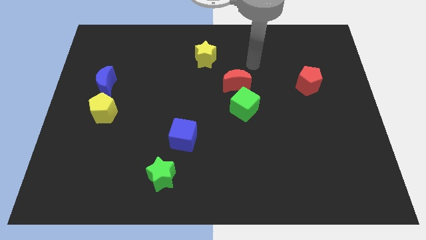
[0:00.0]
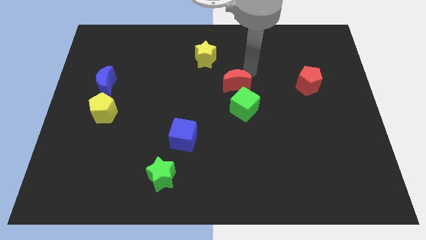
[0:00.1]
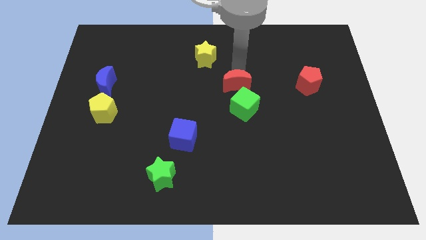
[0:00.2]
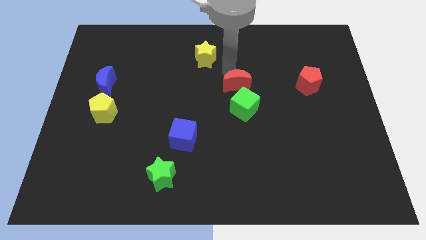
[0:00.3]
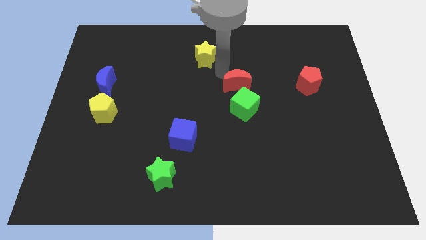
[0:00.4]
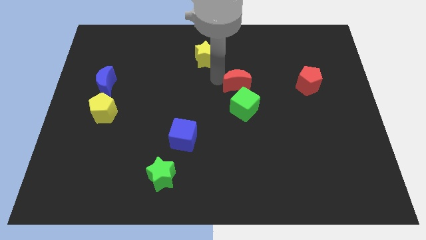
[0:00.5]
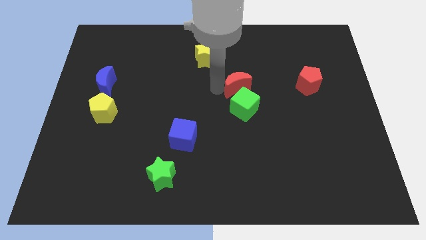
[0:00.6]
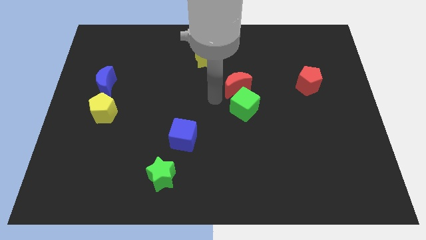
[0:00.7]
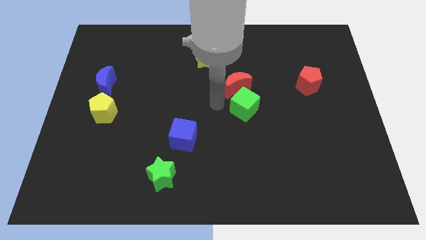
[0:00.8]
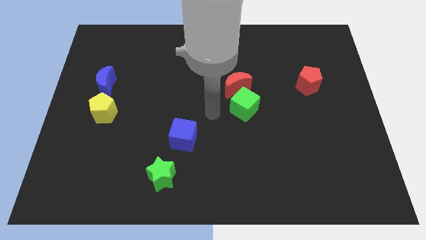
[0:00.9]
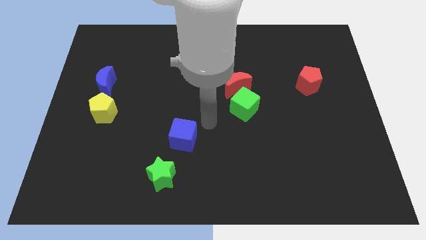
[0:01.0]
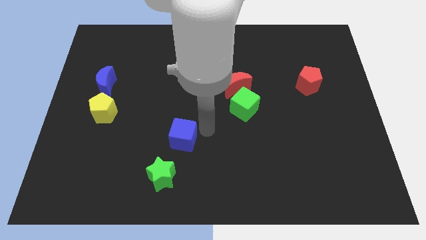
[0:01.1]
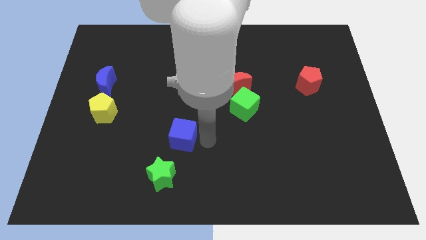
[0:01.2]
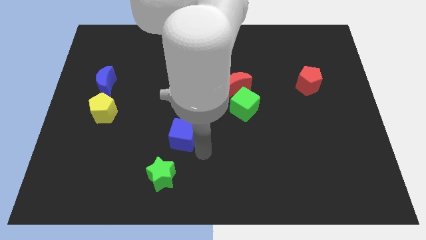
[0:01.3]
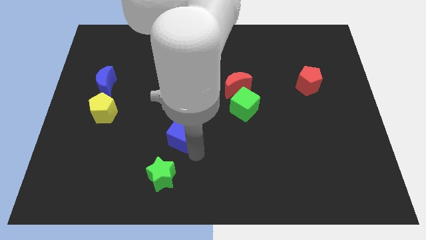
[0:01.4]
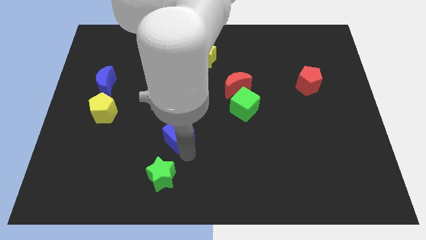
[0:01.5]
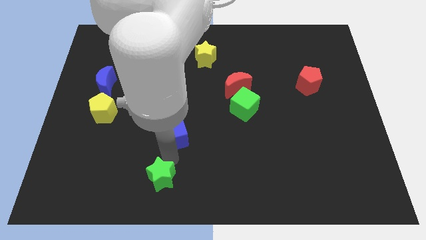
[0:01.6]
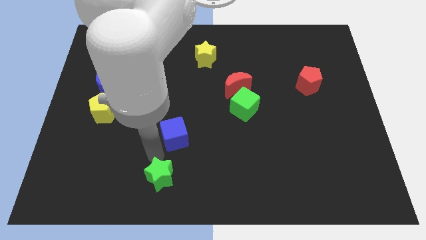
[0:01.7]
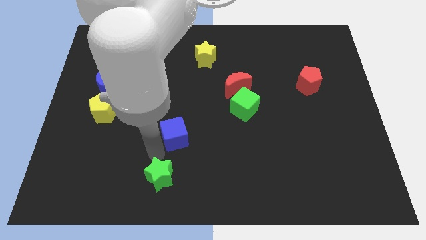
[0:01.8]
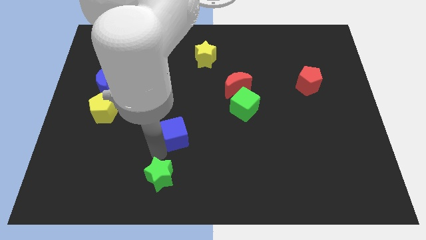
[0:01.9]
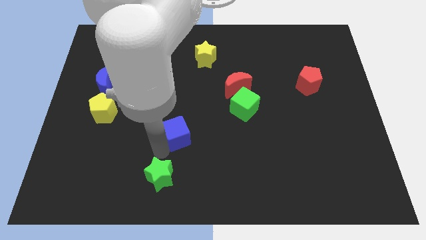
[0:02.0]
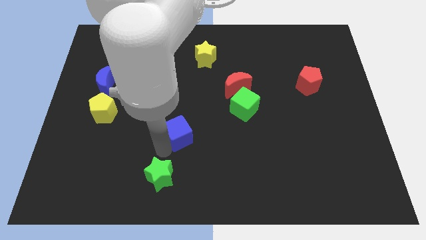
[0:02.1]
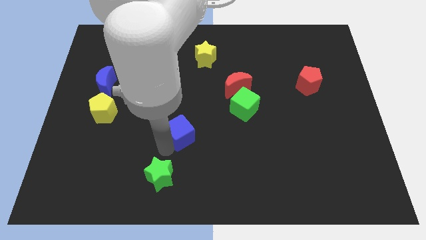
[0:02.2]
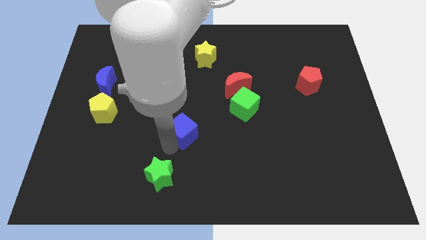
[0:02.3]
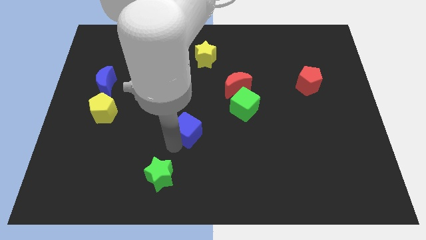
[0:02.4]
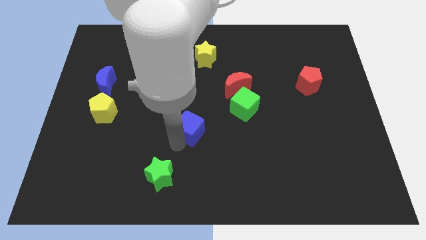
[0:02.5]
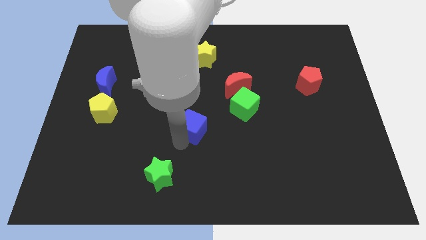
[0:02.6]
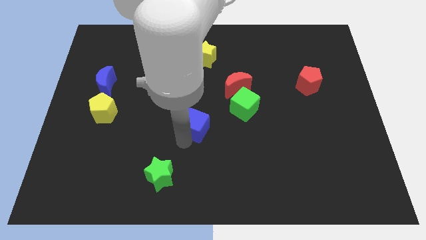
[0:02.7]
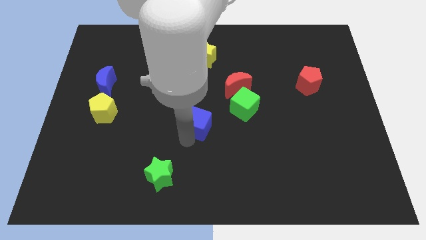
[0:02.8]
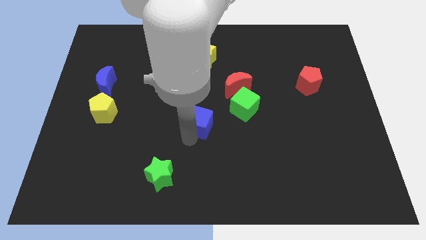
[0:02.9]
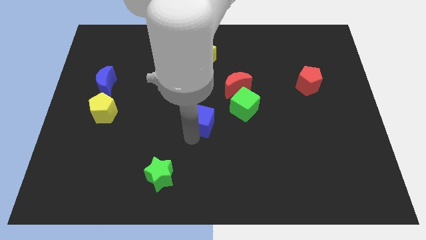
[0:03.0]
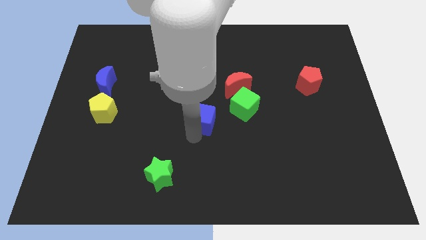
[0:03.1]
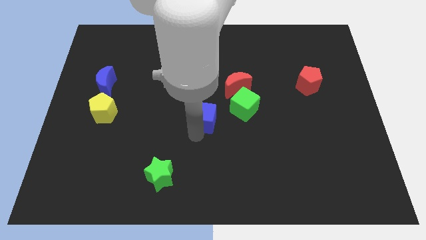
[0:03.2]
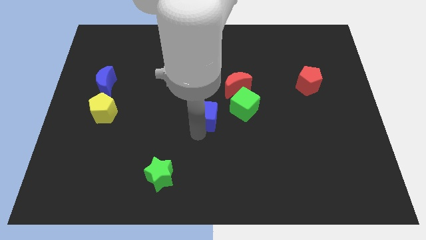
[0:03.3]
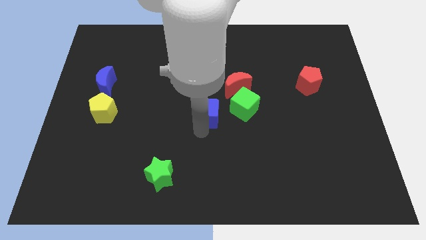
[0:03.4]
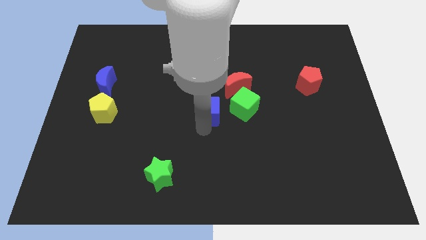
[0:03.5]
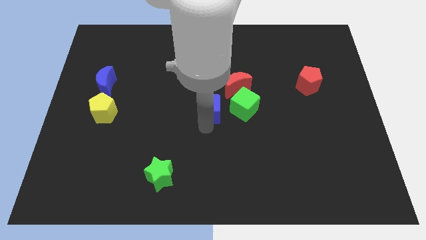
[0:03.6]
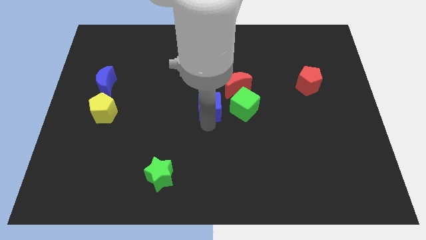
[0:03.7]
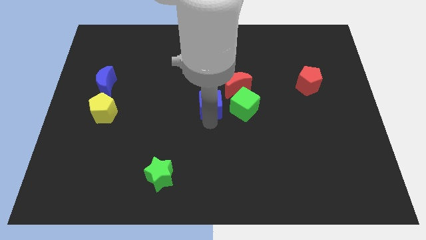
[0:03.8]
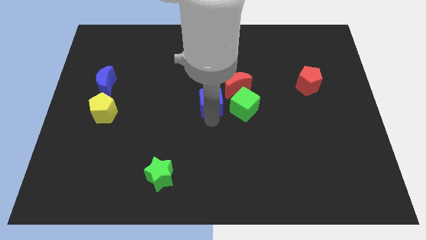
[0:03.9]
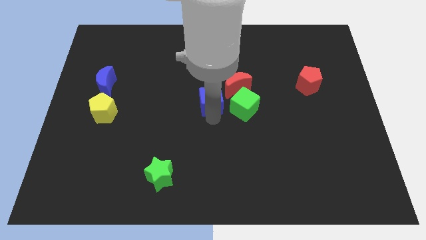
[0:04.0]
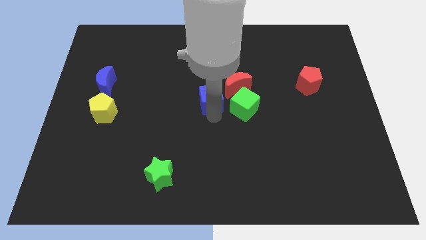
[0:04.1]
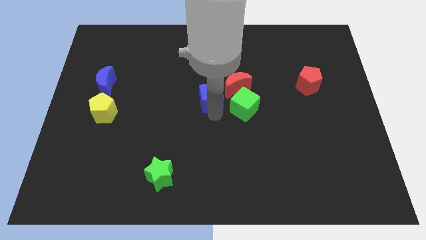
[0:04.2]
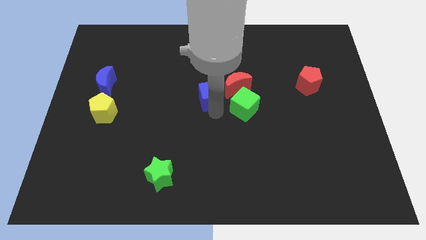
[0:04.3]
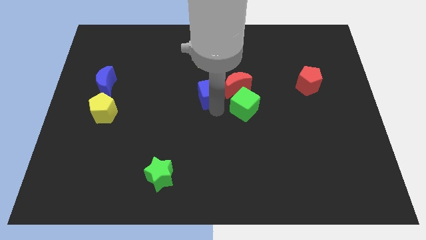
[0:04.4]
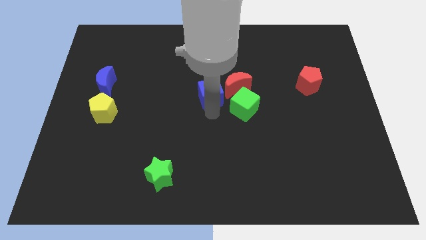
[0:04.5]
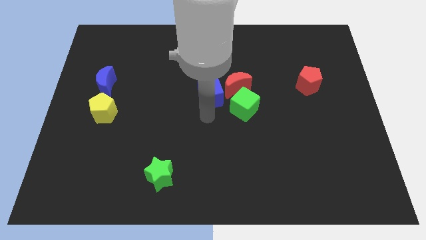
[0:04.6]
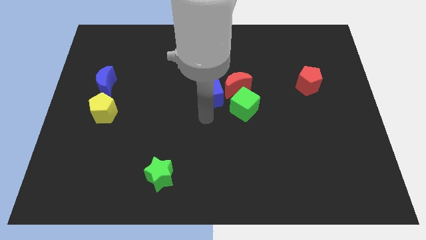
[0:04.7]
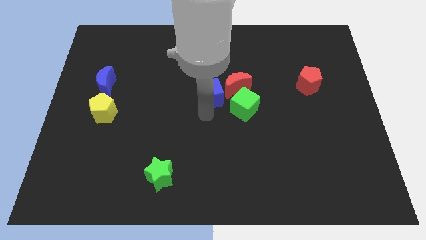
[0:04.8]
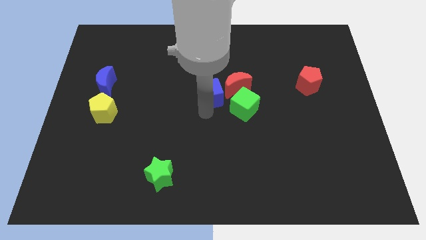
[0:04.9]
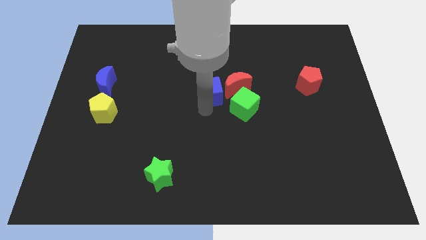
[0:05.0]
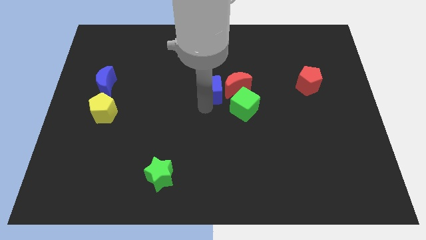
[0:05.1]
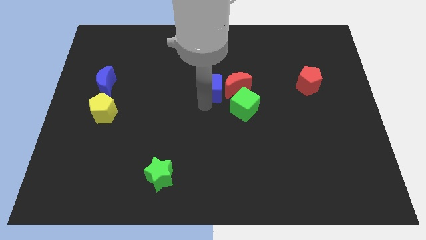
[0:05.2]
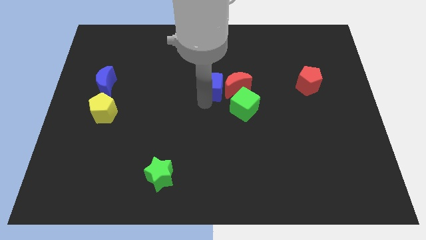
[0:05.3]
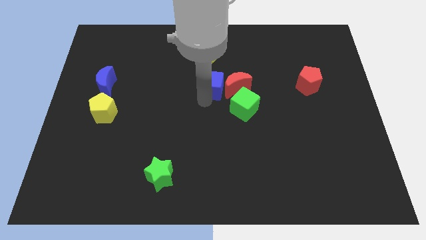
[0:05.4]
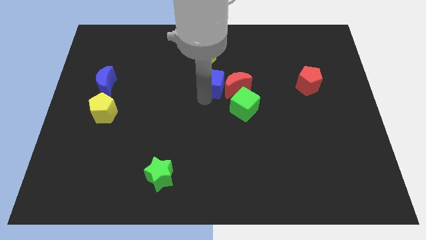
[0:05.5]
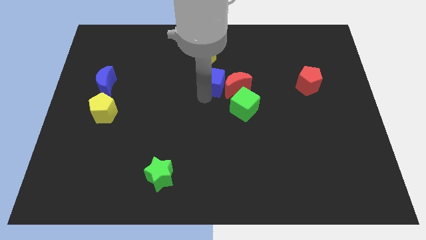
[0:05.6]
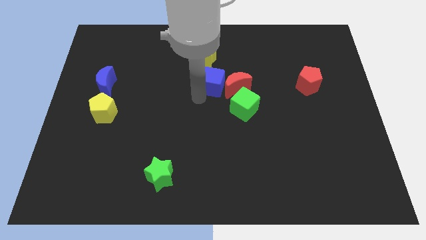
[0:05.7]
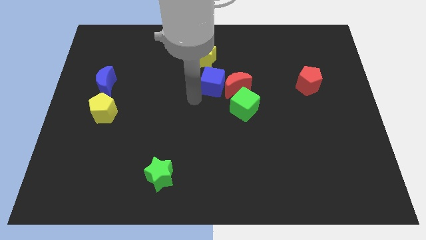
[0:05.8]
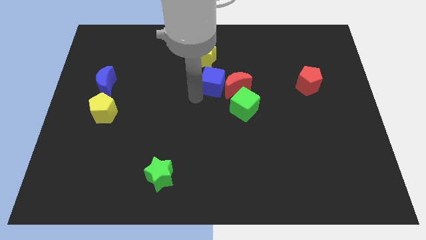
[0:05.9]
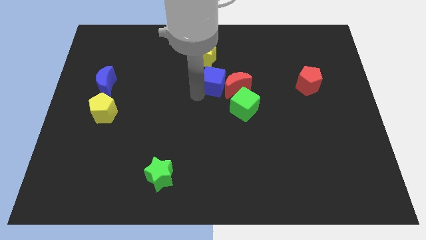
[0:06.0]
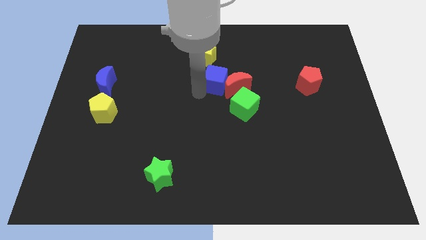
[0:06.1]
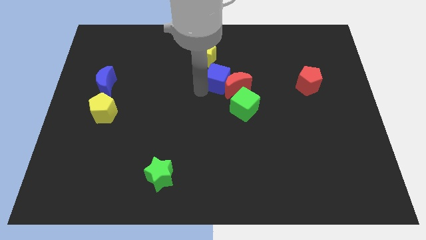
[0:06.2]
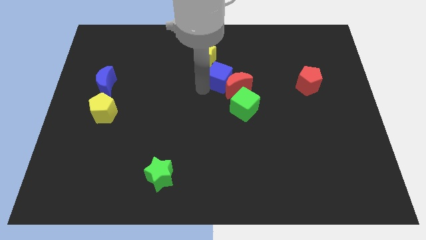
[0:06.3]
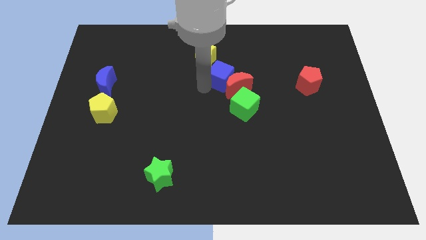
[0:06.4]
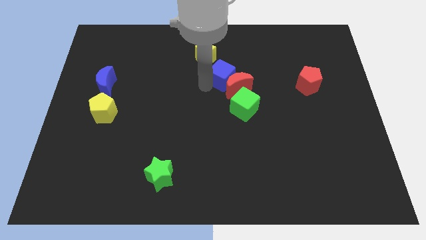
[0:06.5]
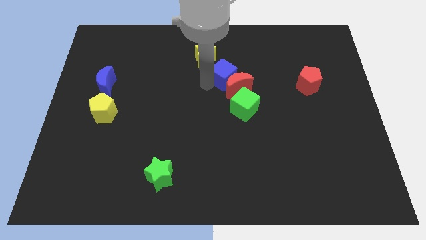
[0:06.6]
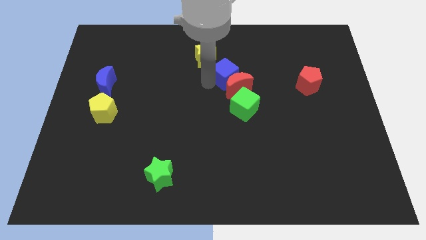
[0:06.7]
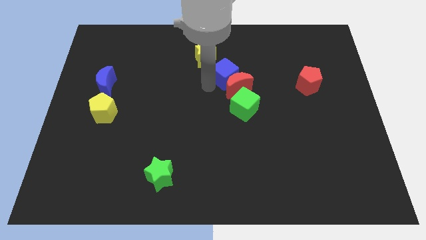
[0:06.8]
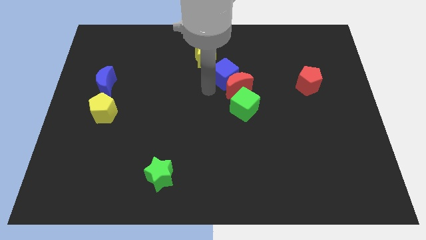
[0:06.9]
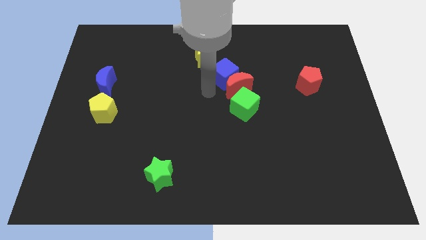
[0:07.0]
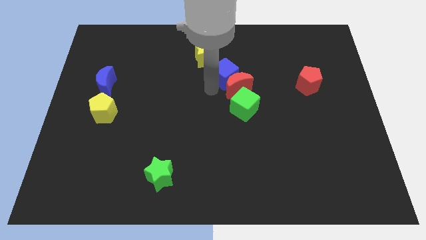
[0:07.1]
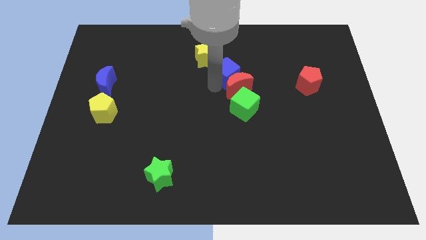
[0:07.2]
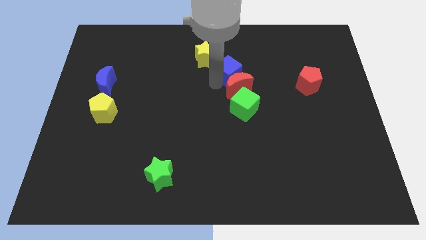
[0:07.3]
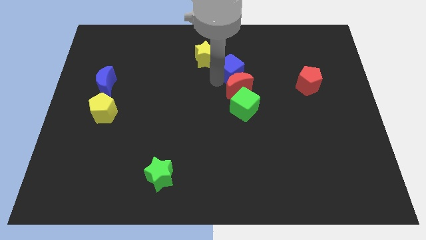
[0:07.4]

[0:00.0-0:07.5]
slide the blue cube up and right

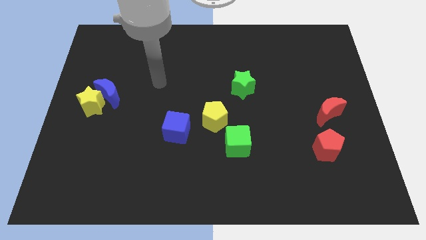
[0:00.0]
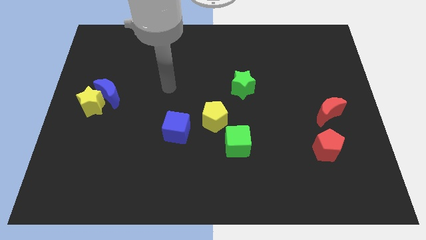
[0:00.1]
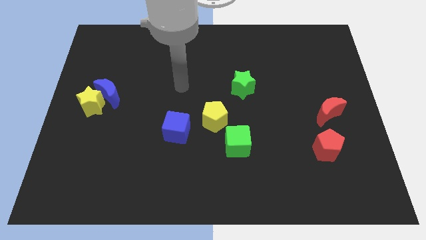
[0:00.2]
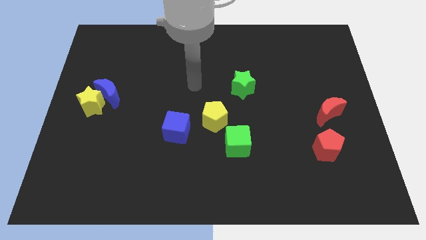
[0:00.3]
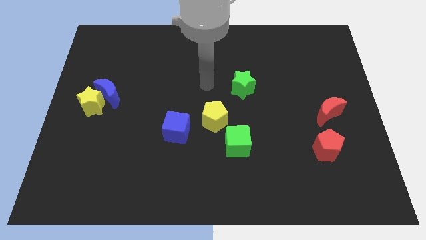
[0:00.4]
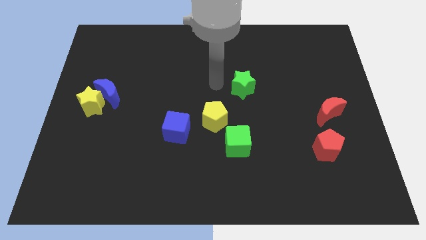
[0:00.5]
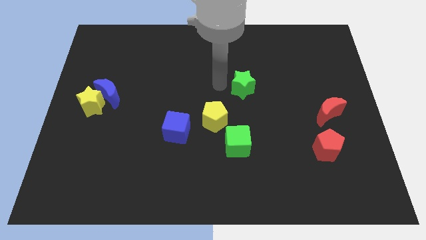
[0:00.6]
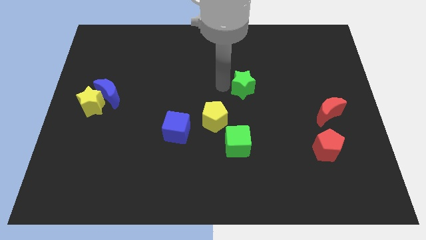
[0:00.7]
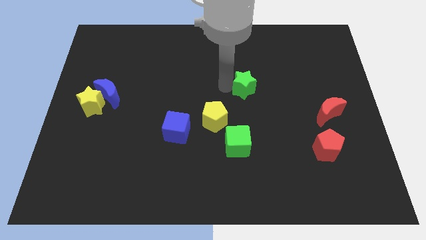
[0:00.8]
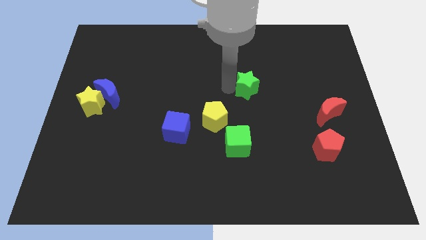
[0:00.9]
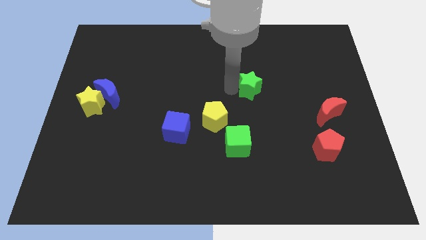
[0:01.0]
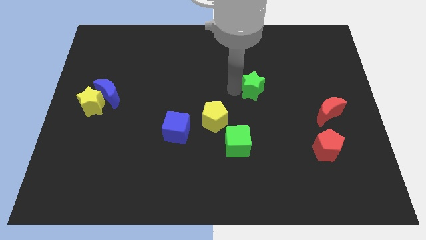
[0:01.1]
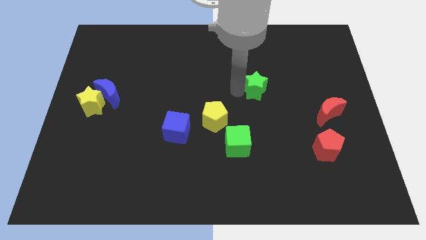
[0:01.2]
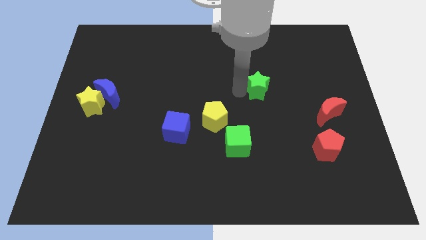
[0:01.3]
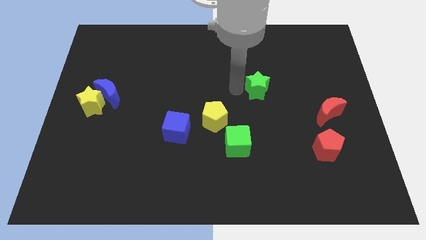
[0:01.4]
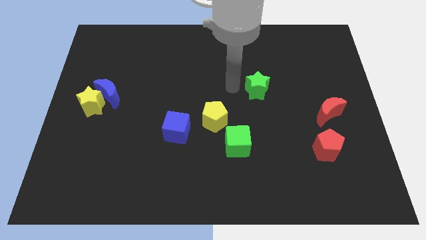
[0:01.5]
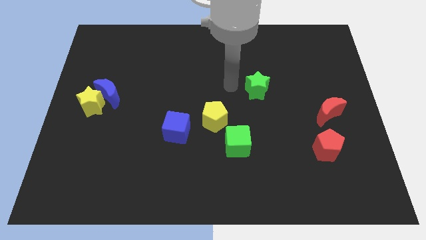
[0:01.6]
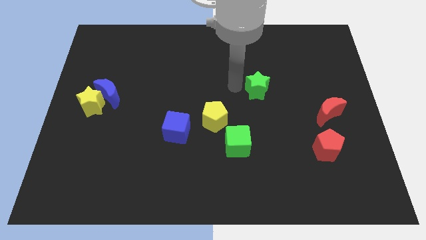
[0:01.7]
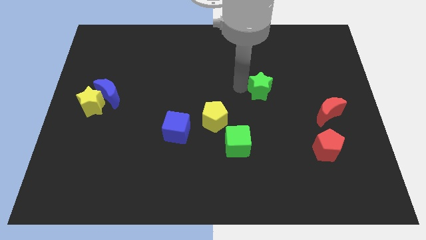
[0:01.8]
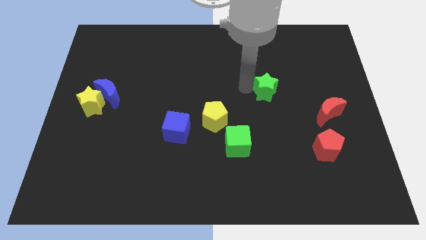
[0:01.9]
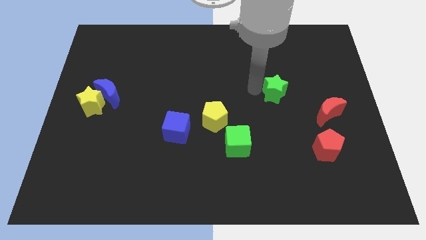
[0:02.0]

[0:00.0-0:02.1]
slightly push the green star right
